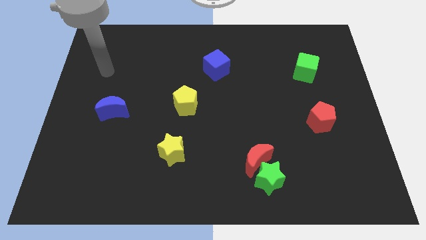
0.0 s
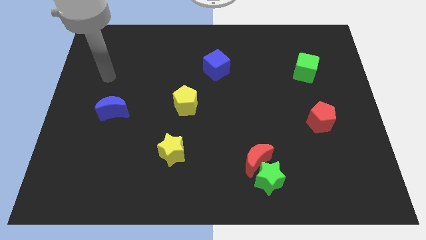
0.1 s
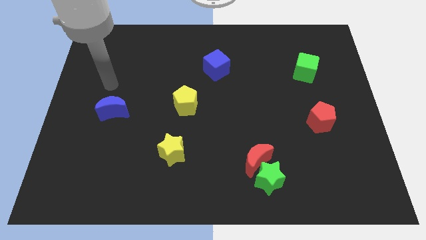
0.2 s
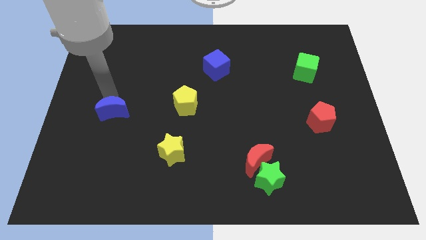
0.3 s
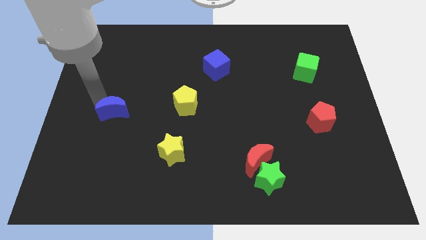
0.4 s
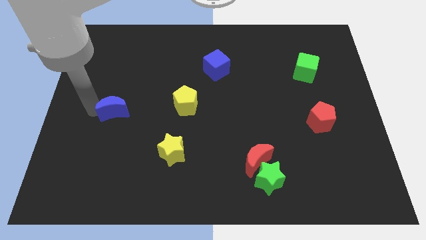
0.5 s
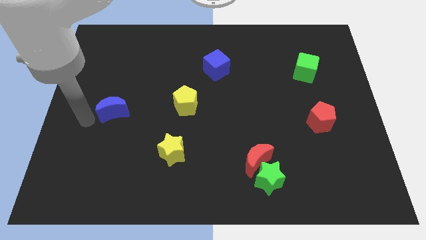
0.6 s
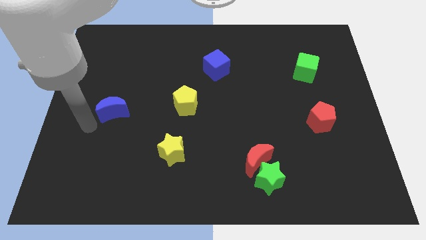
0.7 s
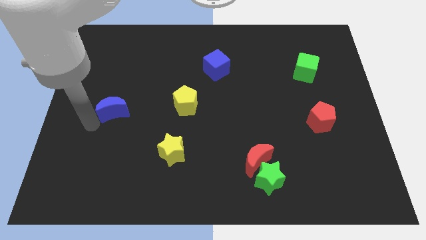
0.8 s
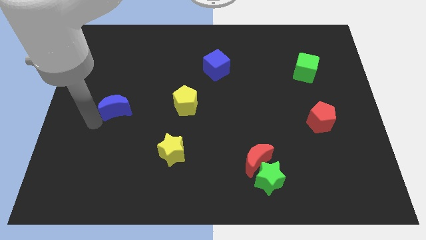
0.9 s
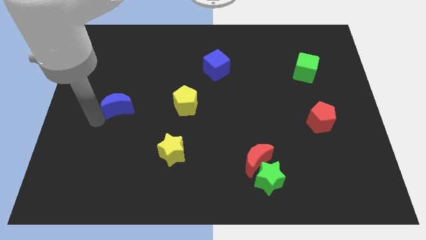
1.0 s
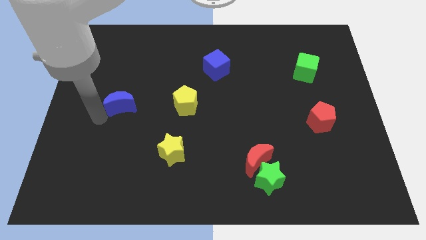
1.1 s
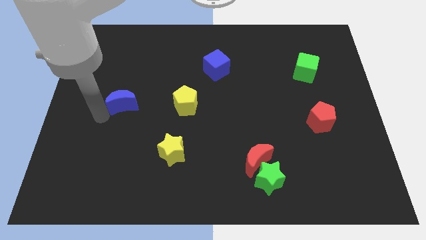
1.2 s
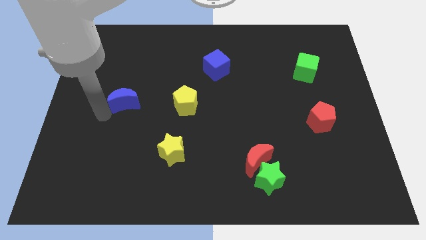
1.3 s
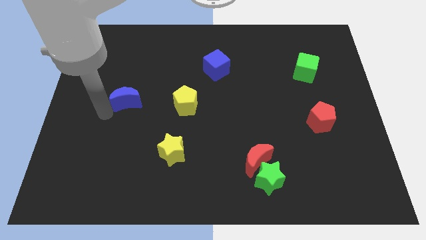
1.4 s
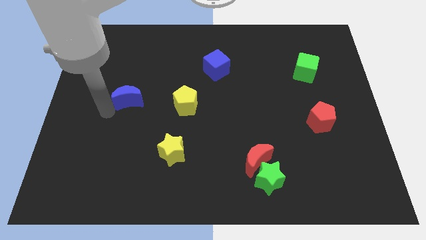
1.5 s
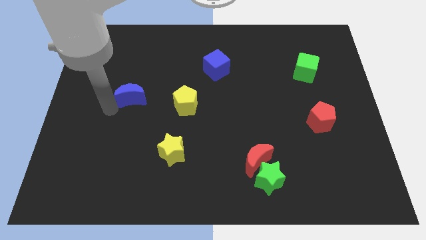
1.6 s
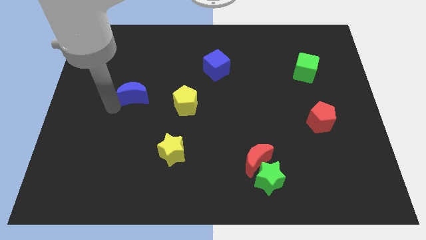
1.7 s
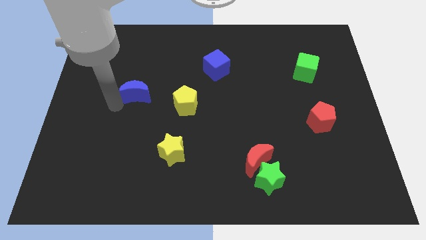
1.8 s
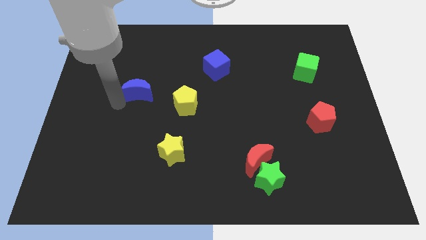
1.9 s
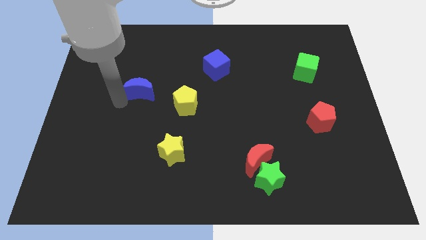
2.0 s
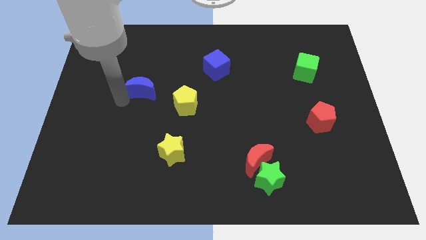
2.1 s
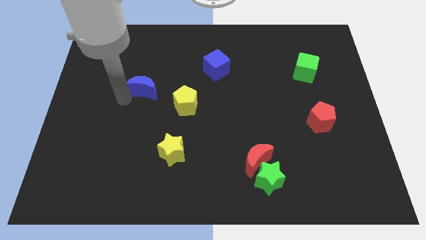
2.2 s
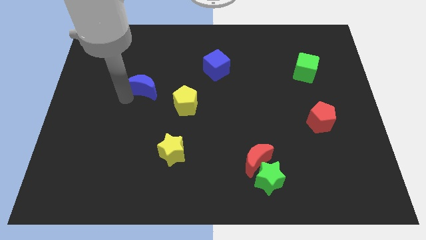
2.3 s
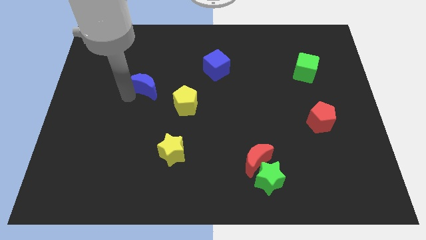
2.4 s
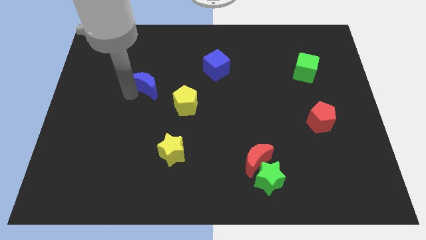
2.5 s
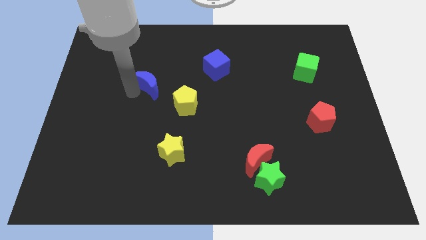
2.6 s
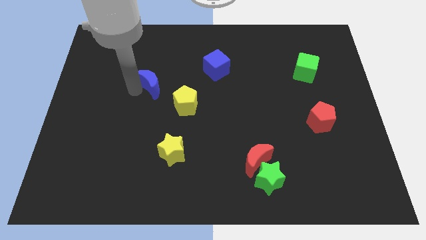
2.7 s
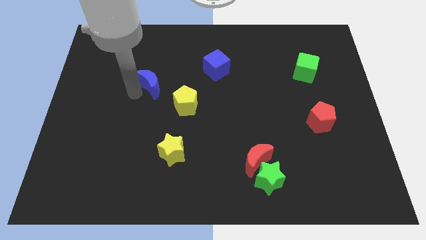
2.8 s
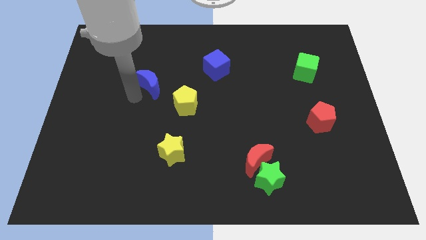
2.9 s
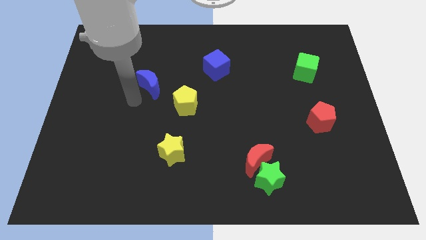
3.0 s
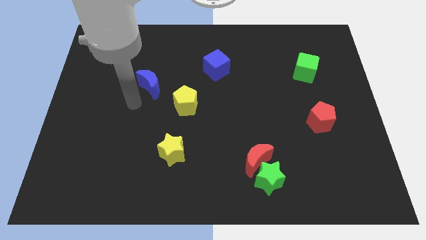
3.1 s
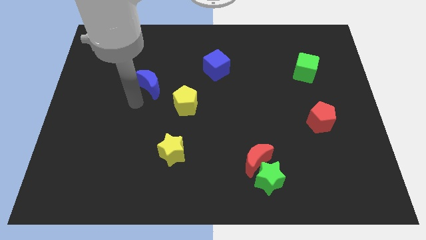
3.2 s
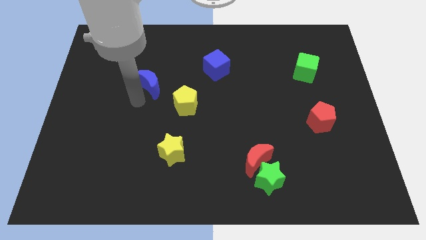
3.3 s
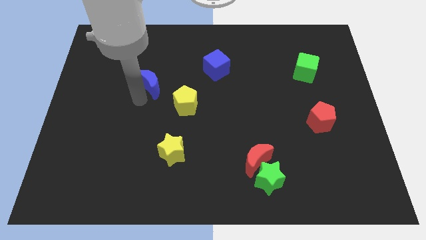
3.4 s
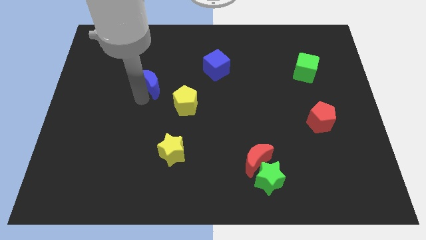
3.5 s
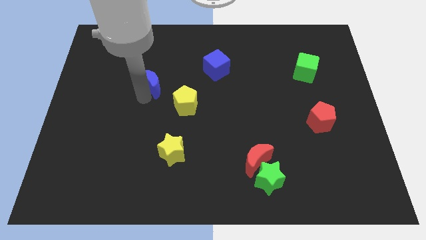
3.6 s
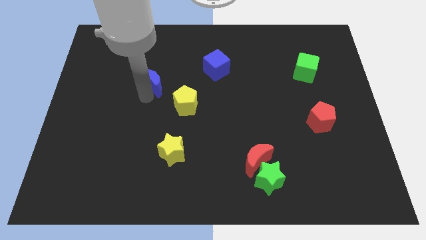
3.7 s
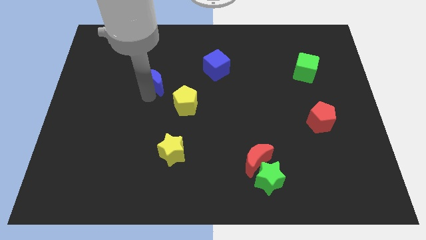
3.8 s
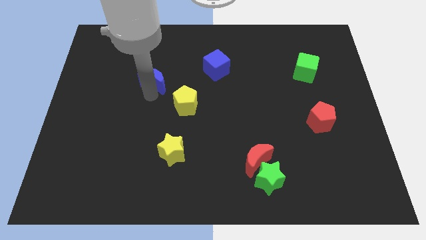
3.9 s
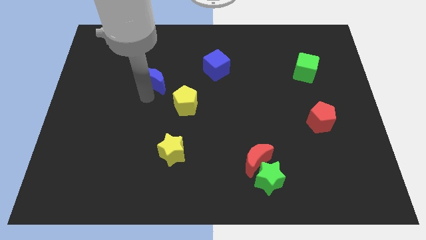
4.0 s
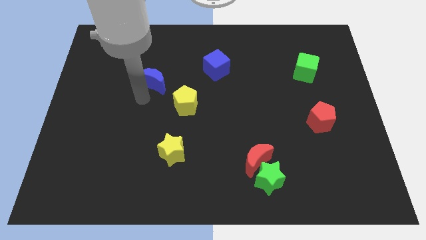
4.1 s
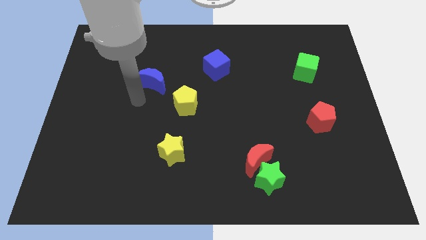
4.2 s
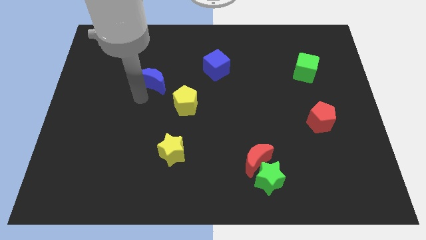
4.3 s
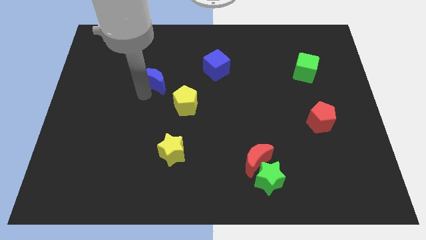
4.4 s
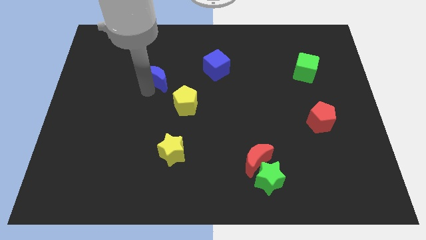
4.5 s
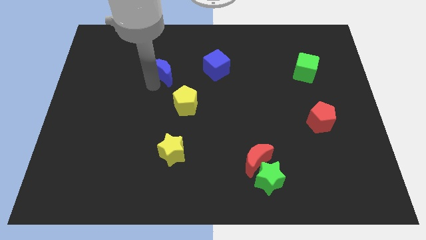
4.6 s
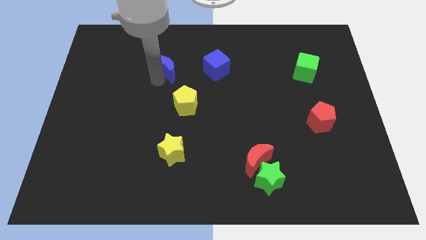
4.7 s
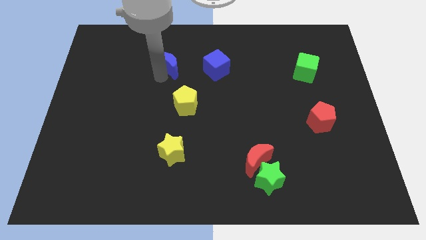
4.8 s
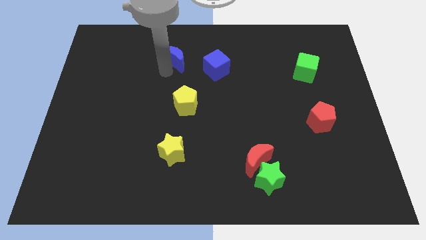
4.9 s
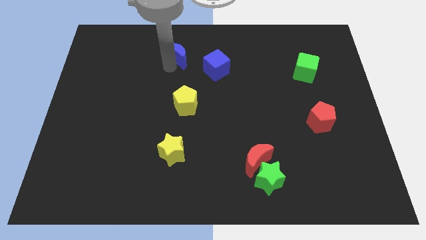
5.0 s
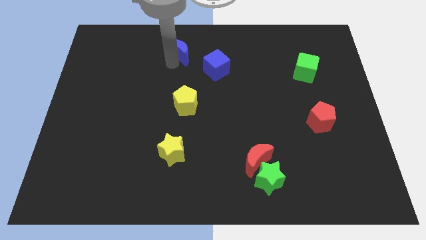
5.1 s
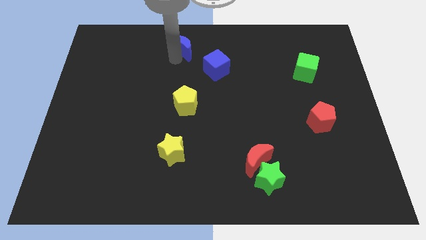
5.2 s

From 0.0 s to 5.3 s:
slide the blue moon to the top
